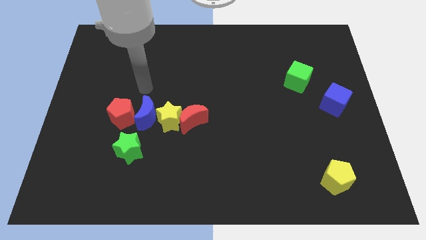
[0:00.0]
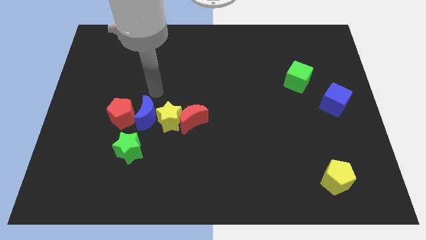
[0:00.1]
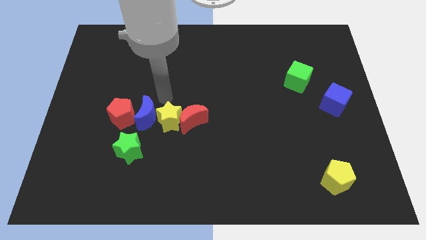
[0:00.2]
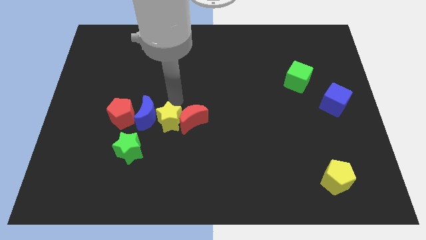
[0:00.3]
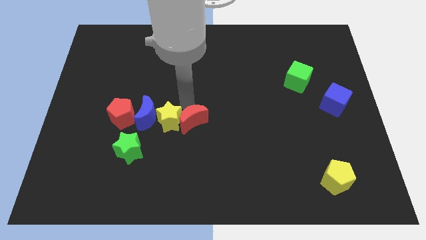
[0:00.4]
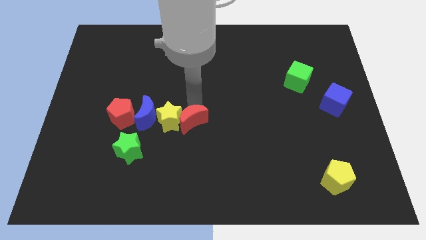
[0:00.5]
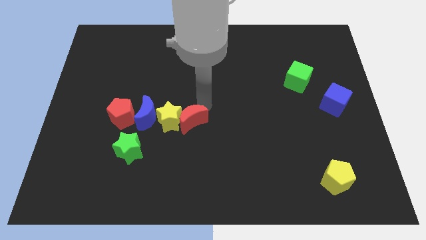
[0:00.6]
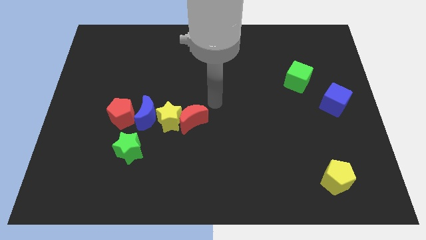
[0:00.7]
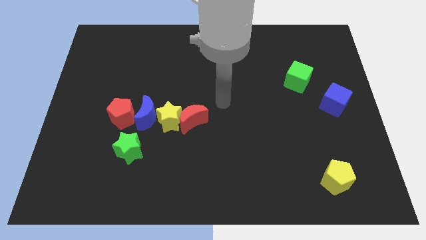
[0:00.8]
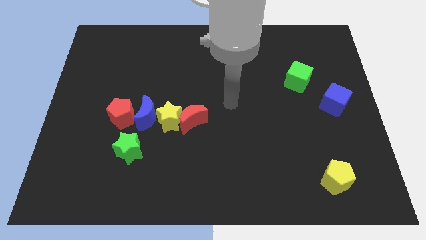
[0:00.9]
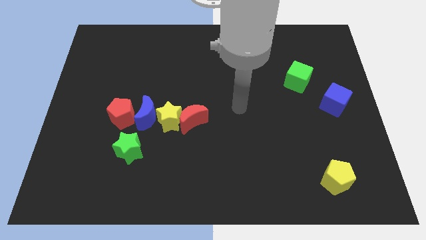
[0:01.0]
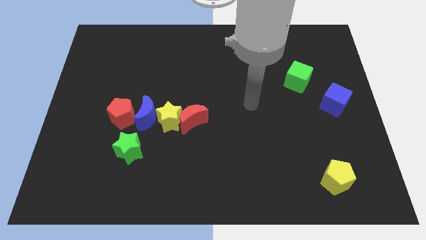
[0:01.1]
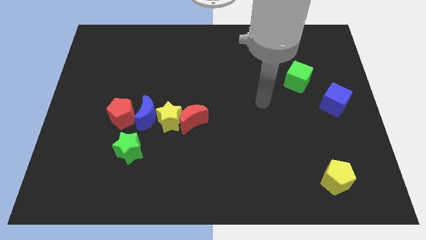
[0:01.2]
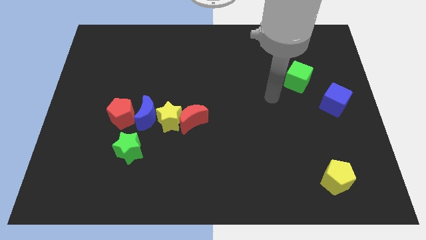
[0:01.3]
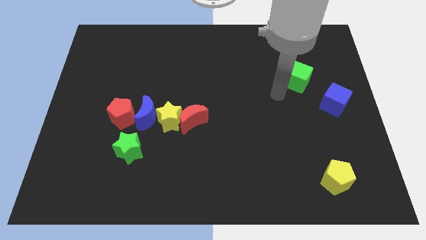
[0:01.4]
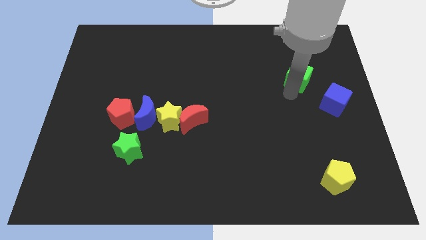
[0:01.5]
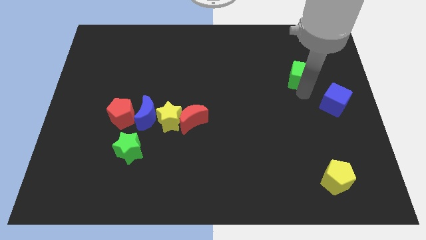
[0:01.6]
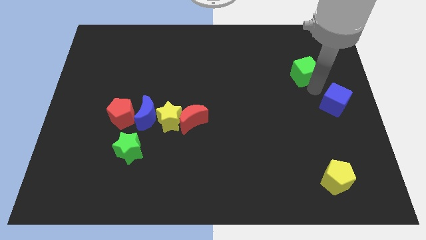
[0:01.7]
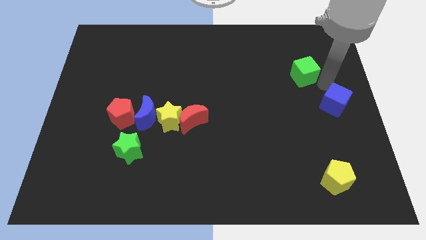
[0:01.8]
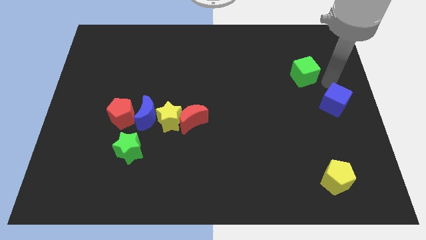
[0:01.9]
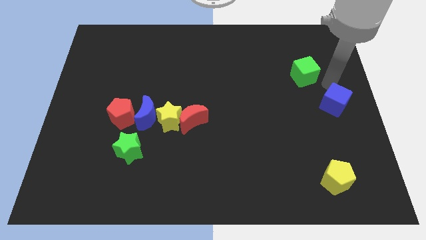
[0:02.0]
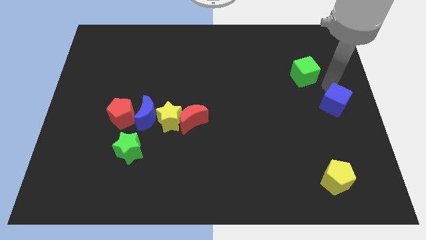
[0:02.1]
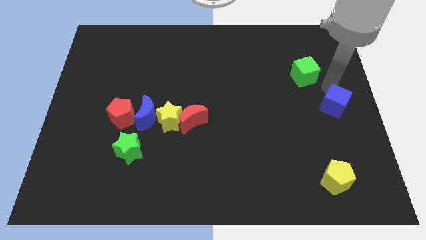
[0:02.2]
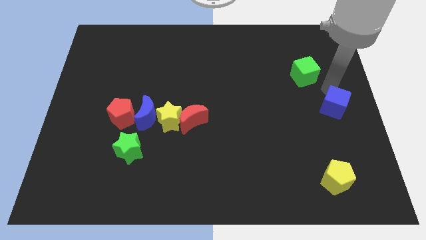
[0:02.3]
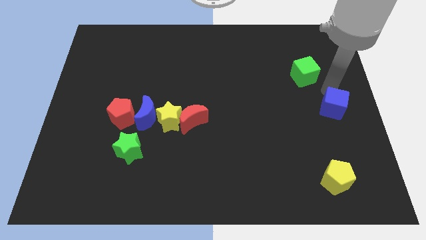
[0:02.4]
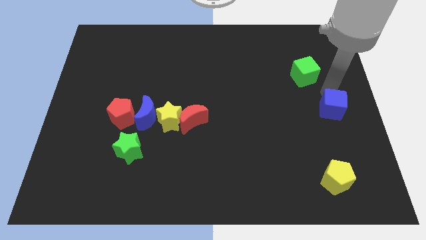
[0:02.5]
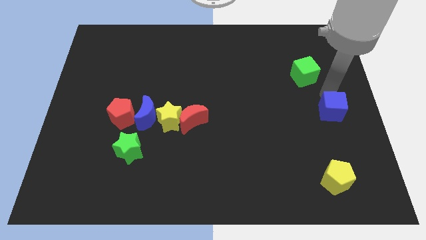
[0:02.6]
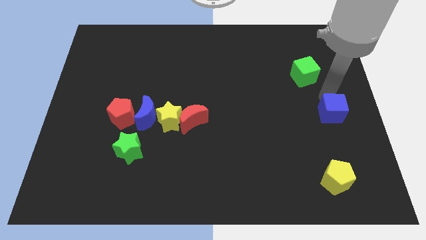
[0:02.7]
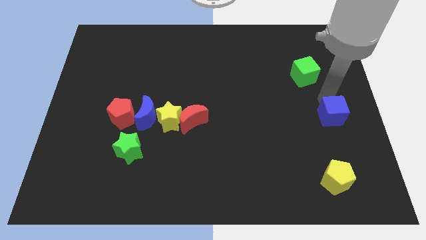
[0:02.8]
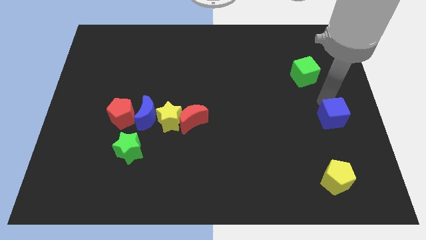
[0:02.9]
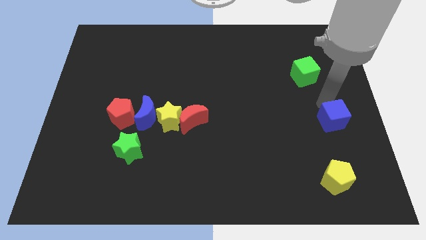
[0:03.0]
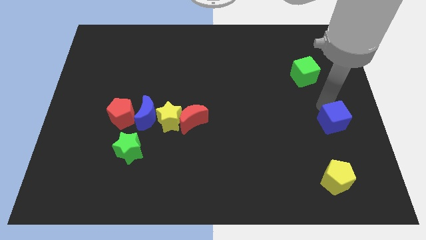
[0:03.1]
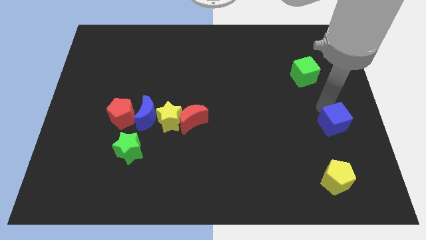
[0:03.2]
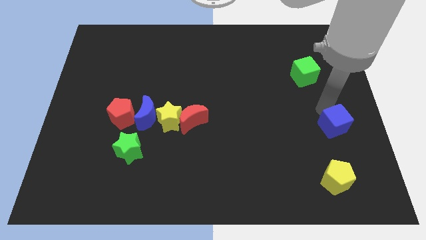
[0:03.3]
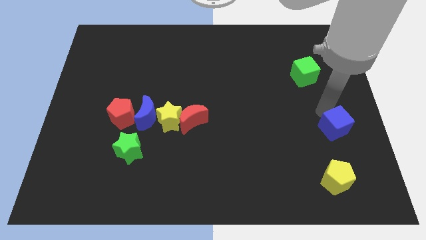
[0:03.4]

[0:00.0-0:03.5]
push the blue cube a little bit downwards

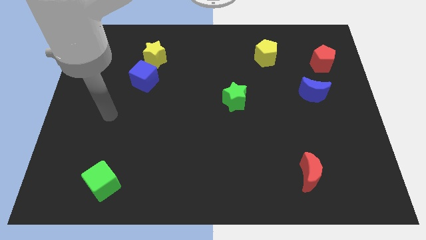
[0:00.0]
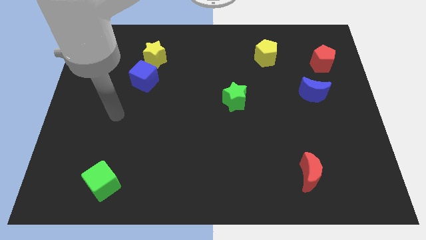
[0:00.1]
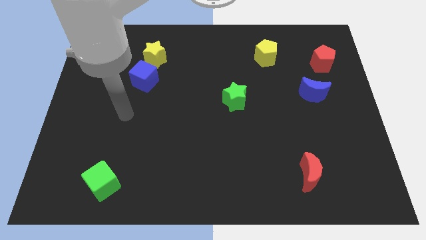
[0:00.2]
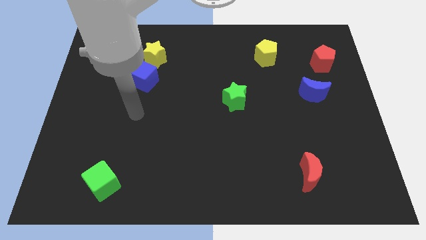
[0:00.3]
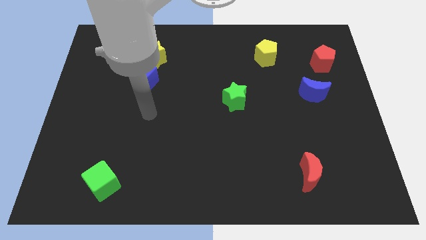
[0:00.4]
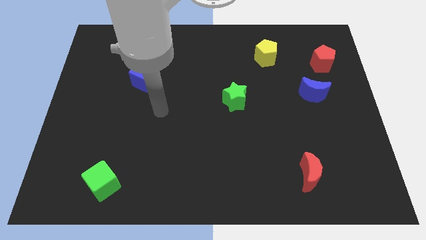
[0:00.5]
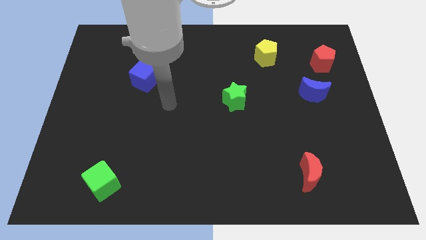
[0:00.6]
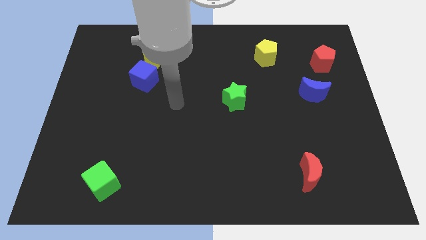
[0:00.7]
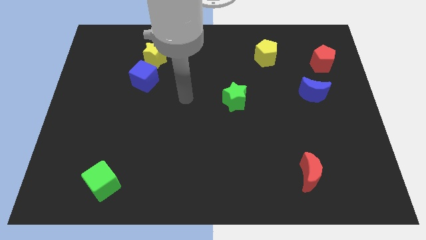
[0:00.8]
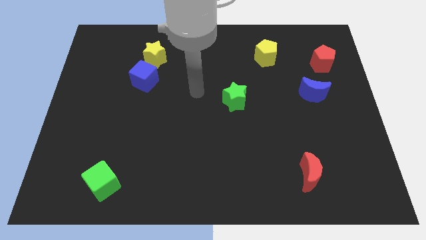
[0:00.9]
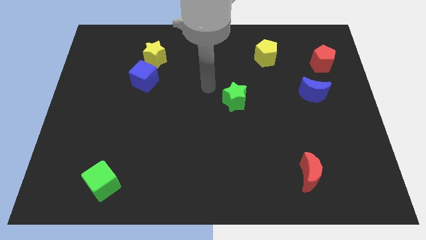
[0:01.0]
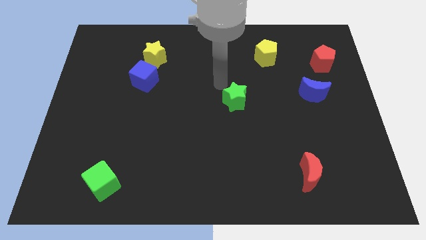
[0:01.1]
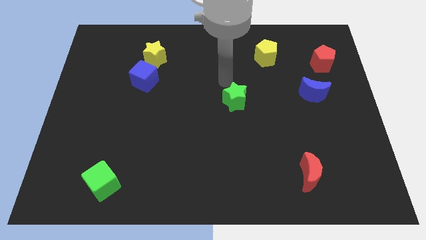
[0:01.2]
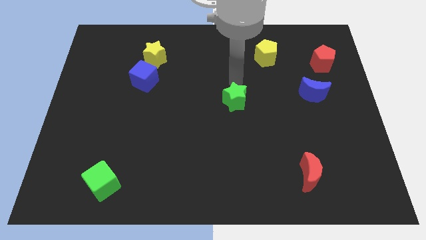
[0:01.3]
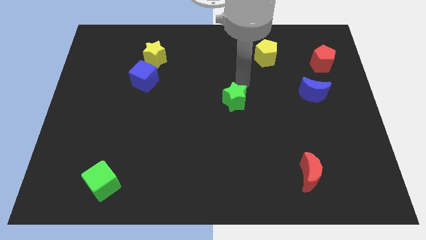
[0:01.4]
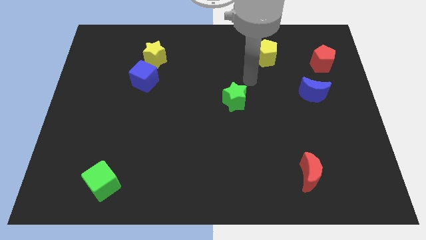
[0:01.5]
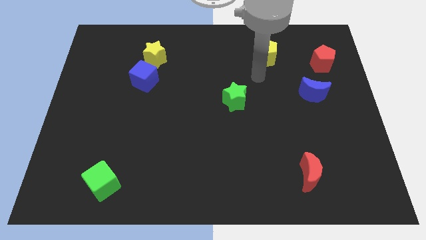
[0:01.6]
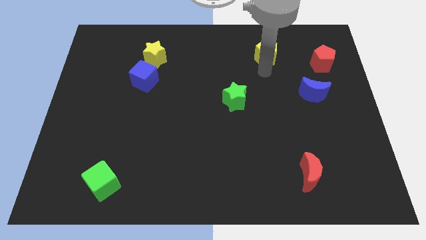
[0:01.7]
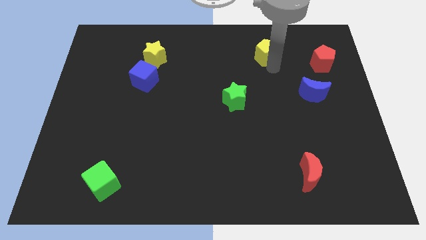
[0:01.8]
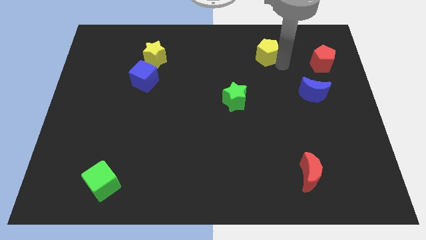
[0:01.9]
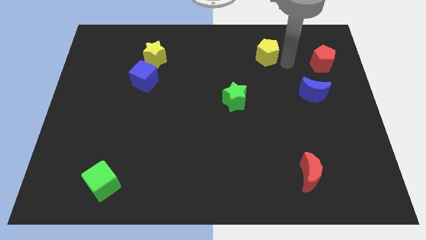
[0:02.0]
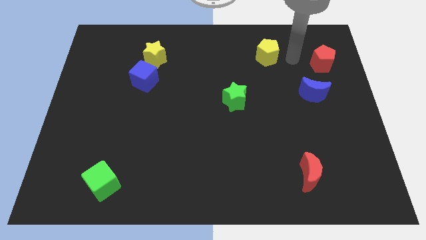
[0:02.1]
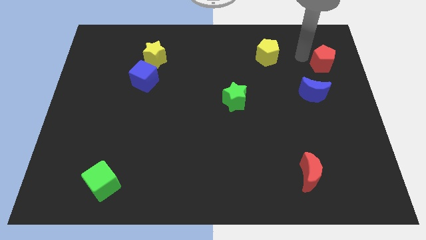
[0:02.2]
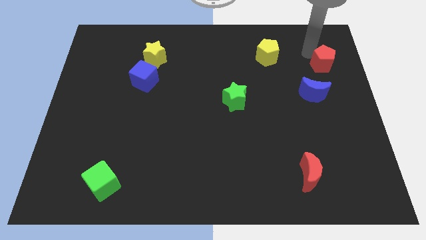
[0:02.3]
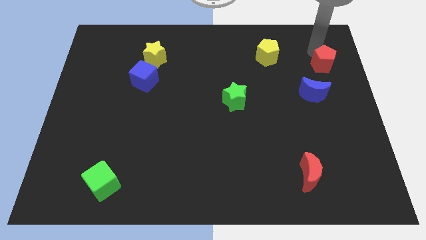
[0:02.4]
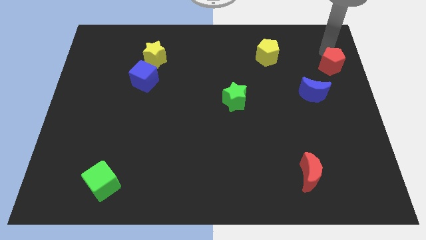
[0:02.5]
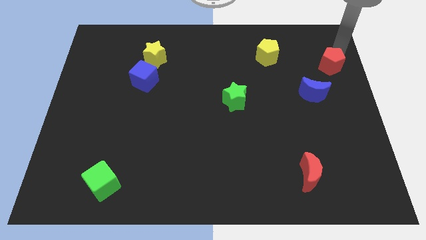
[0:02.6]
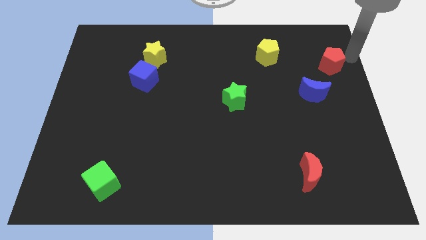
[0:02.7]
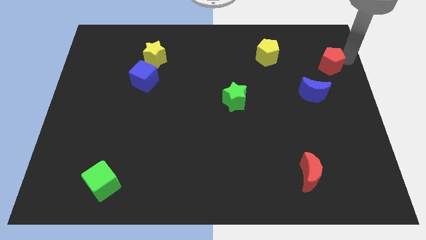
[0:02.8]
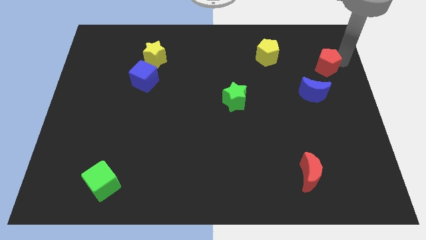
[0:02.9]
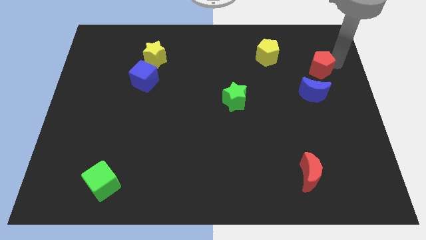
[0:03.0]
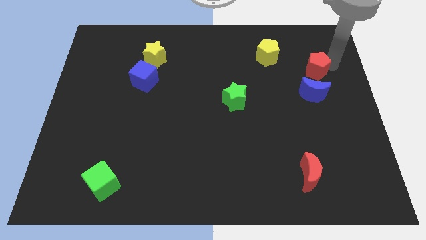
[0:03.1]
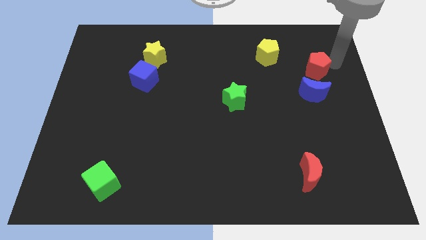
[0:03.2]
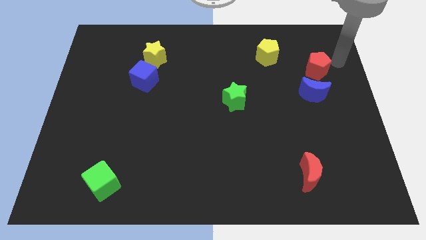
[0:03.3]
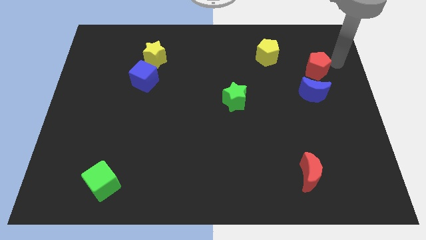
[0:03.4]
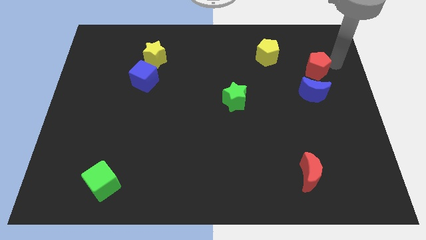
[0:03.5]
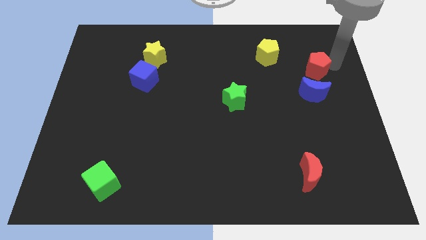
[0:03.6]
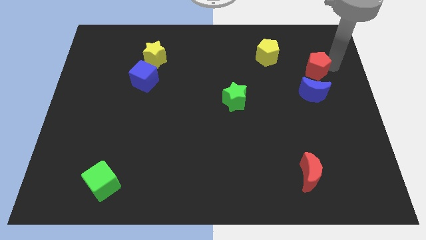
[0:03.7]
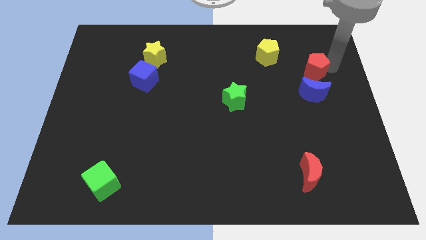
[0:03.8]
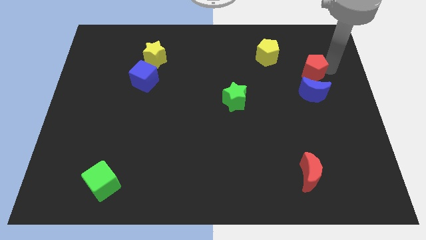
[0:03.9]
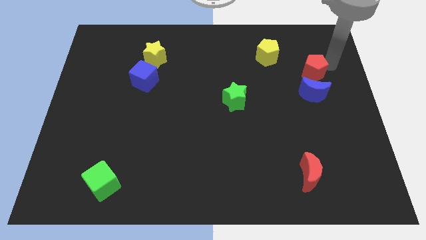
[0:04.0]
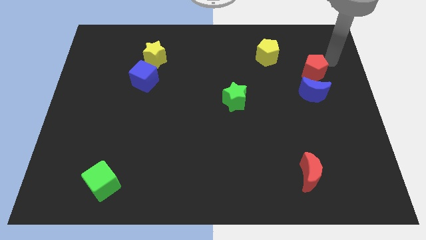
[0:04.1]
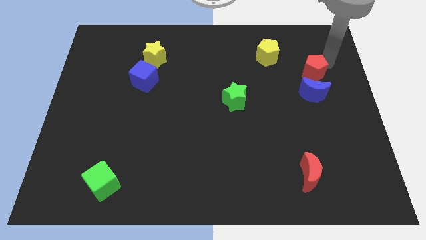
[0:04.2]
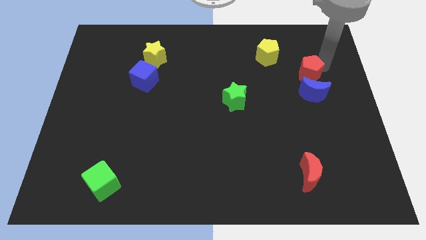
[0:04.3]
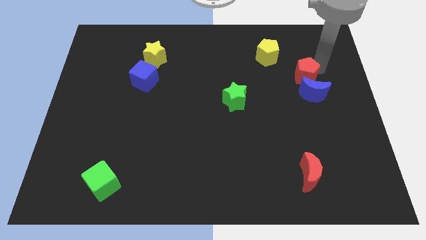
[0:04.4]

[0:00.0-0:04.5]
slightly move the red pentagon down and to the left
